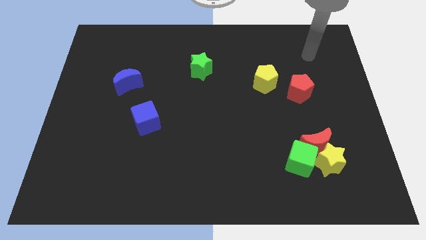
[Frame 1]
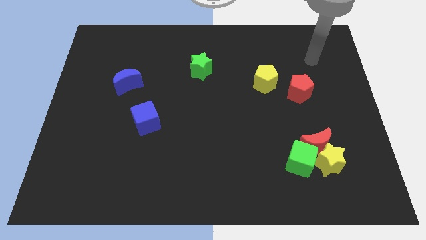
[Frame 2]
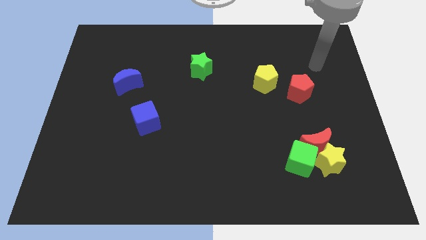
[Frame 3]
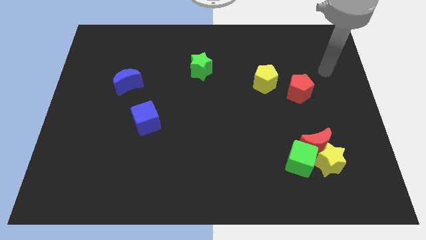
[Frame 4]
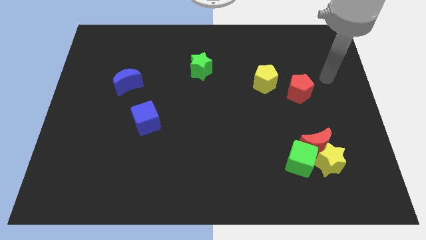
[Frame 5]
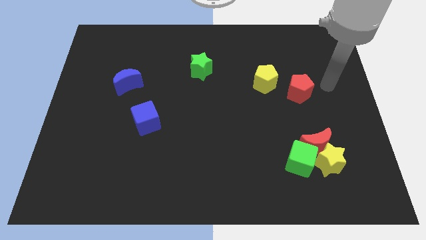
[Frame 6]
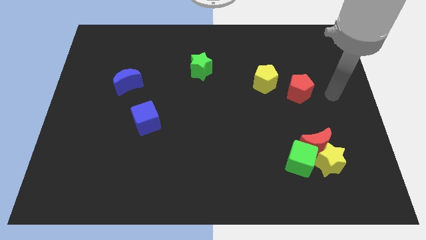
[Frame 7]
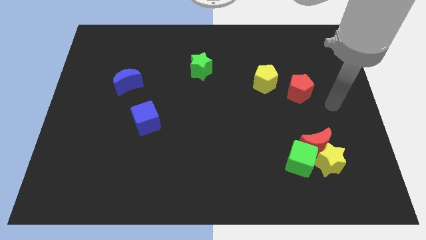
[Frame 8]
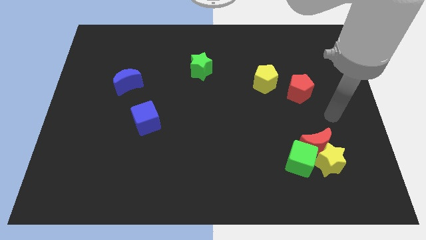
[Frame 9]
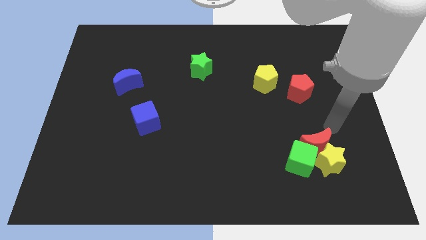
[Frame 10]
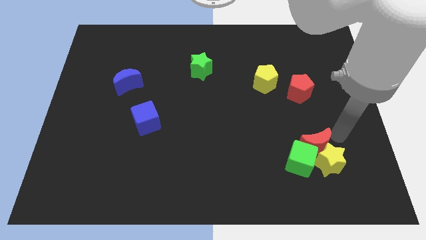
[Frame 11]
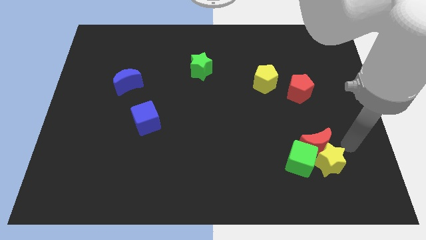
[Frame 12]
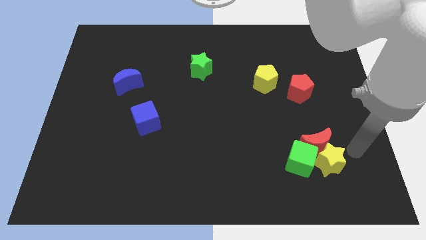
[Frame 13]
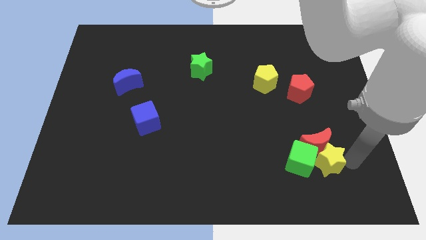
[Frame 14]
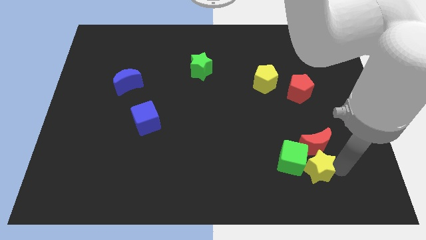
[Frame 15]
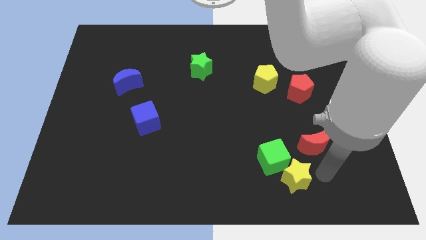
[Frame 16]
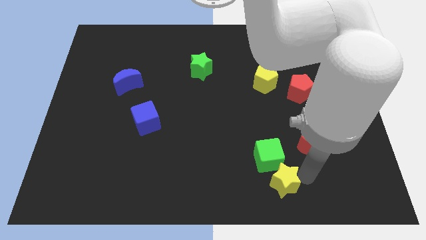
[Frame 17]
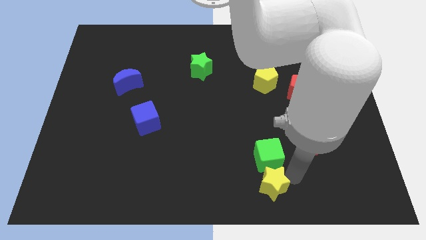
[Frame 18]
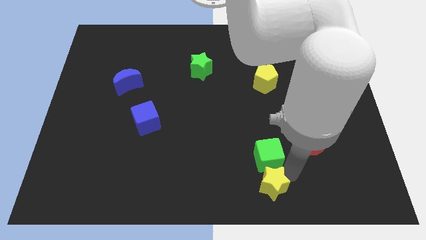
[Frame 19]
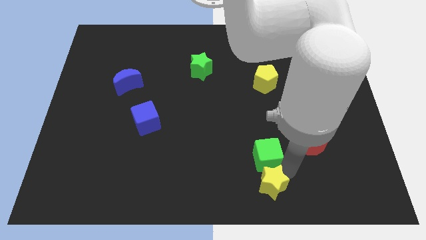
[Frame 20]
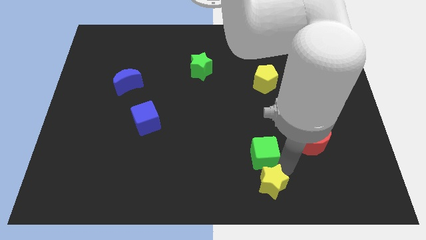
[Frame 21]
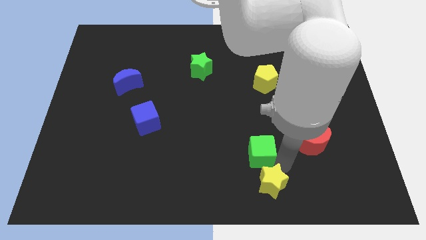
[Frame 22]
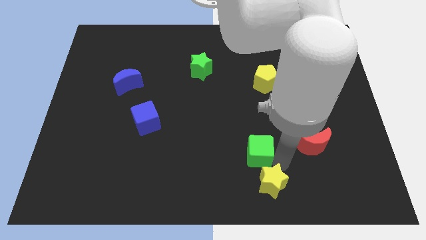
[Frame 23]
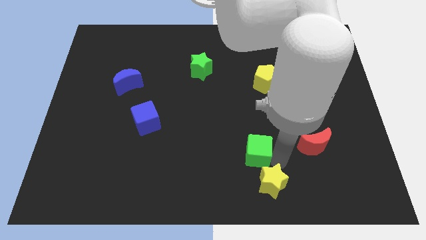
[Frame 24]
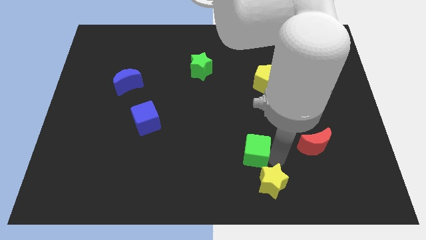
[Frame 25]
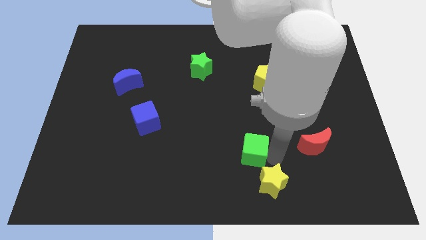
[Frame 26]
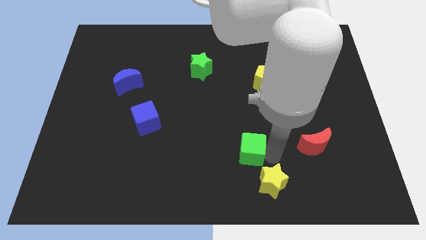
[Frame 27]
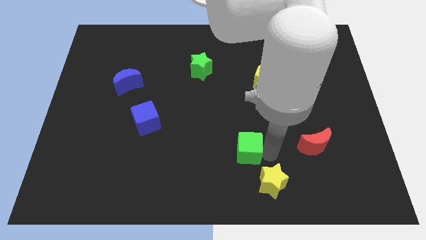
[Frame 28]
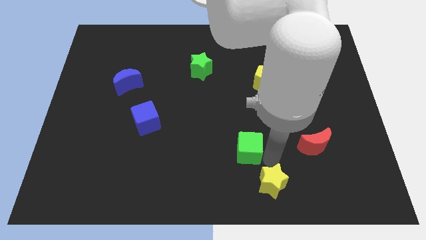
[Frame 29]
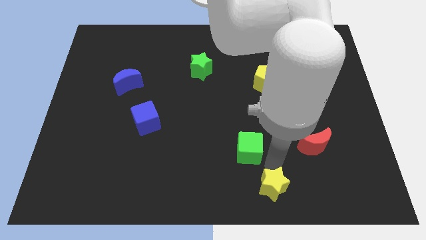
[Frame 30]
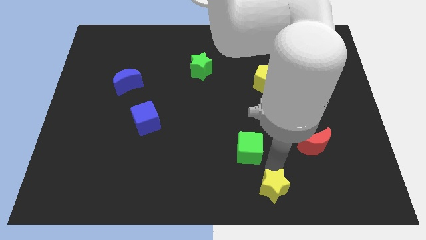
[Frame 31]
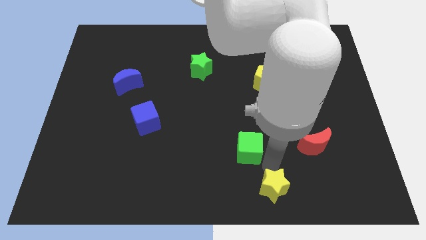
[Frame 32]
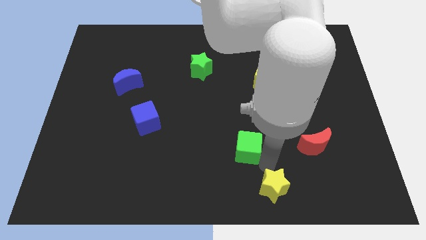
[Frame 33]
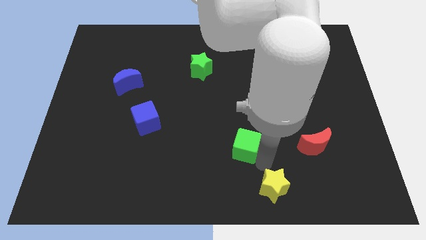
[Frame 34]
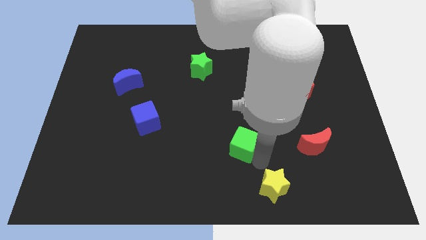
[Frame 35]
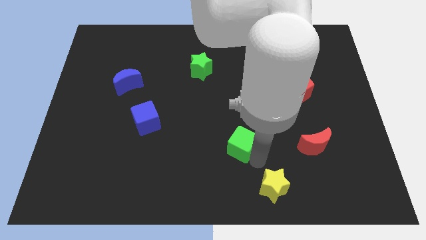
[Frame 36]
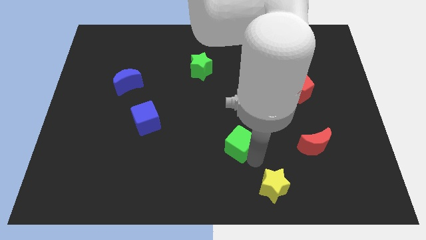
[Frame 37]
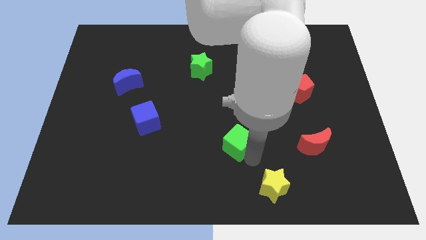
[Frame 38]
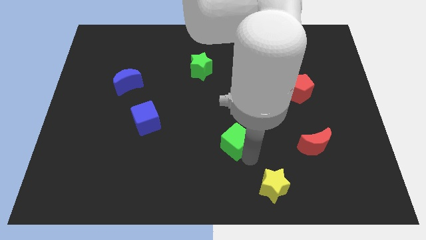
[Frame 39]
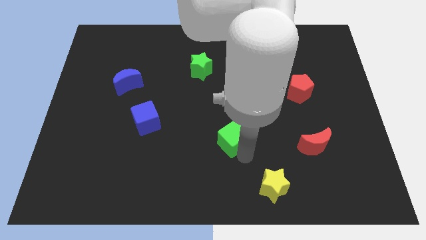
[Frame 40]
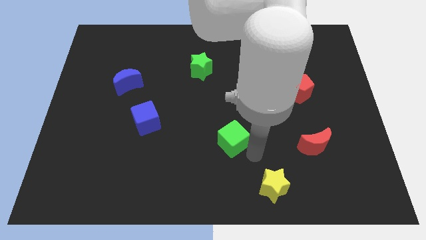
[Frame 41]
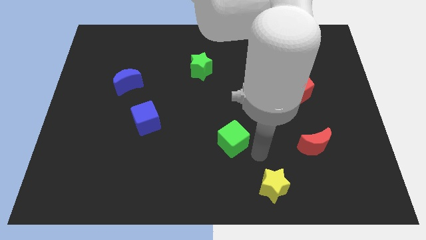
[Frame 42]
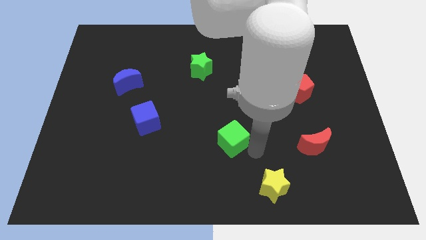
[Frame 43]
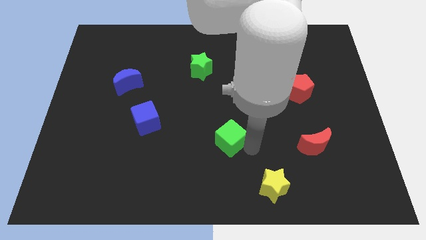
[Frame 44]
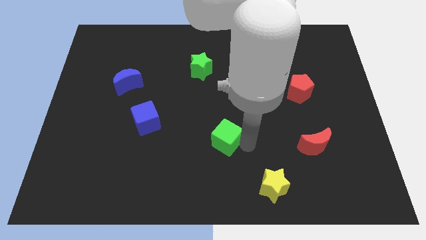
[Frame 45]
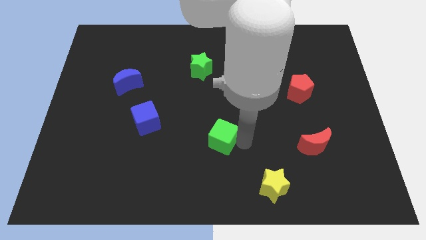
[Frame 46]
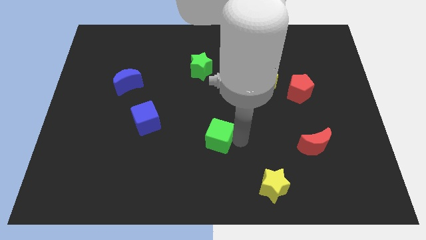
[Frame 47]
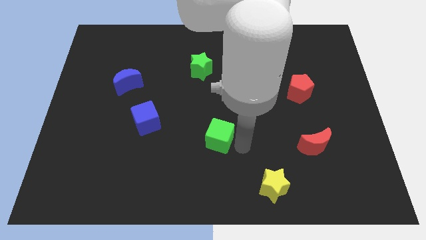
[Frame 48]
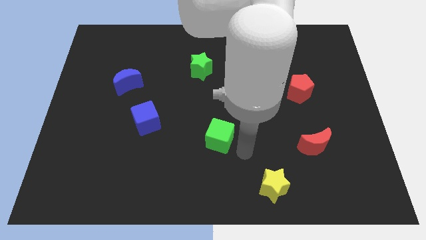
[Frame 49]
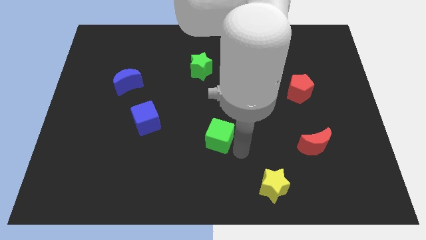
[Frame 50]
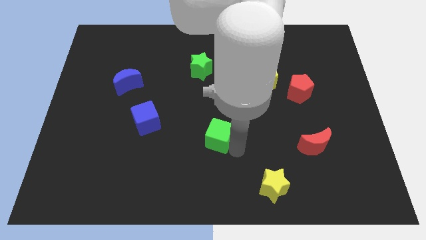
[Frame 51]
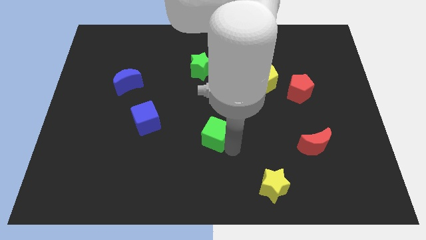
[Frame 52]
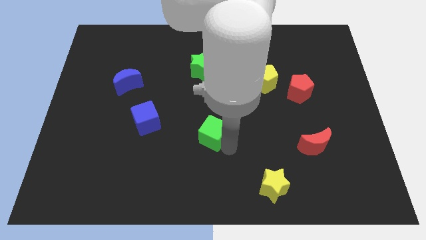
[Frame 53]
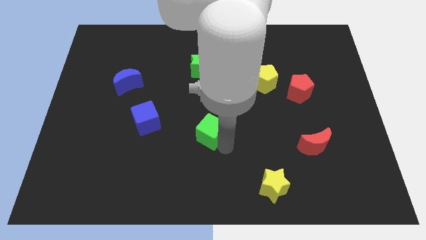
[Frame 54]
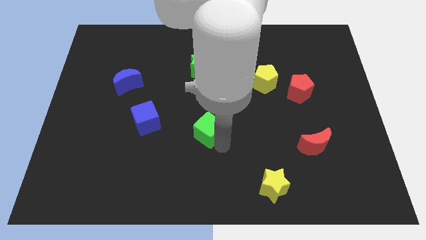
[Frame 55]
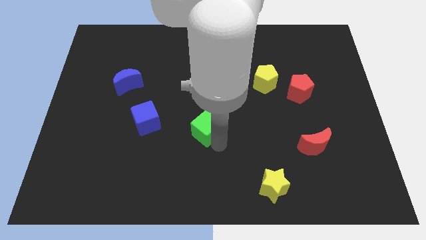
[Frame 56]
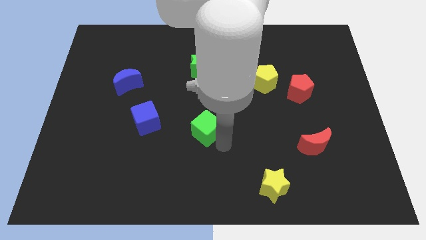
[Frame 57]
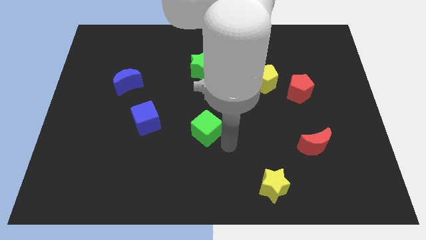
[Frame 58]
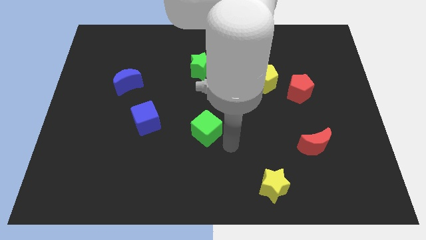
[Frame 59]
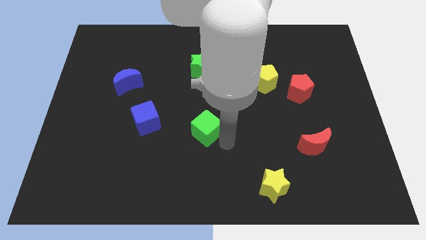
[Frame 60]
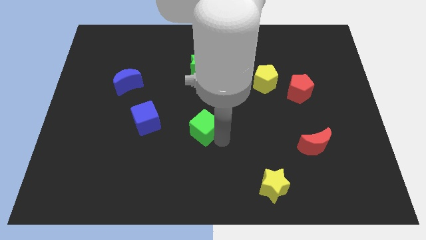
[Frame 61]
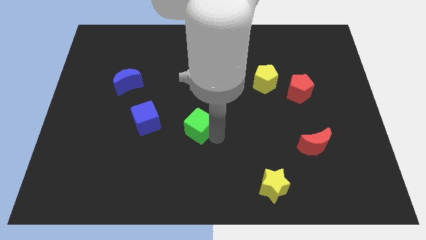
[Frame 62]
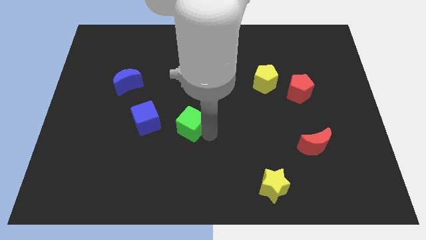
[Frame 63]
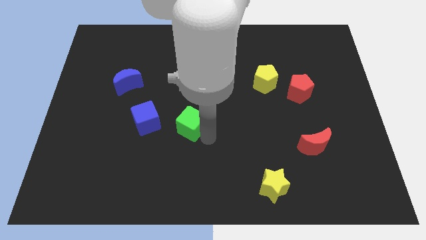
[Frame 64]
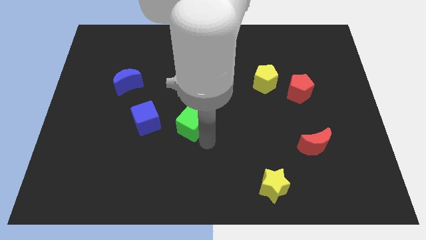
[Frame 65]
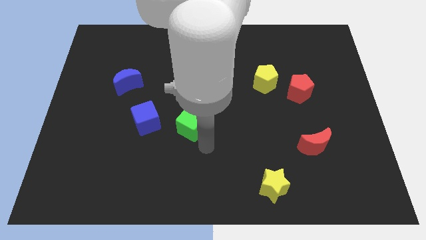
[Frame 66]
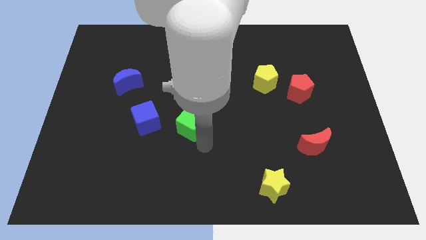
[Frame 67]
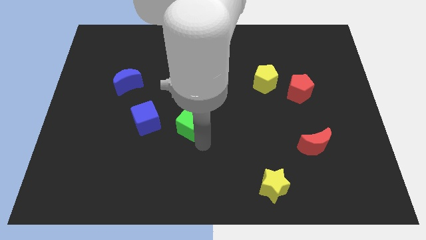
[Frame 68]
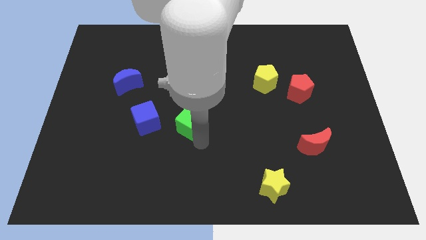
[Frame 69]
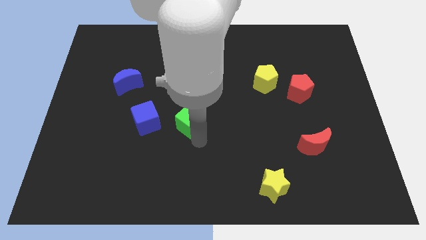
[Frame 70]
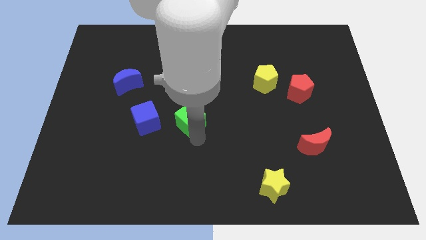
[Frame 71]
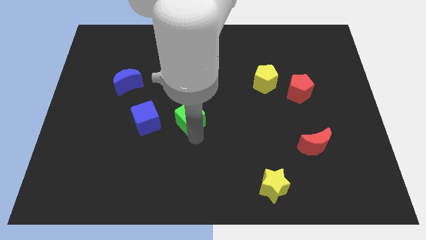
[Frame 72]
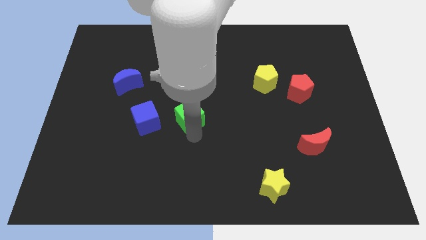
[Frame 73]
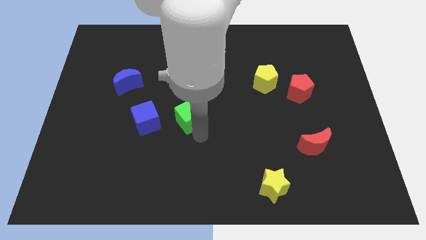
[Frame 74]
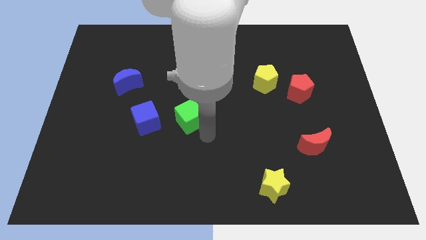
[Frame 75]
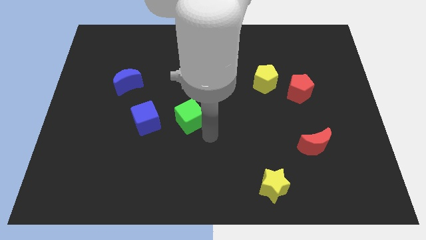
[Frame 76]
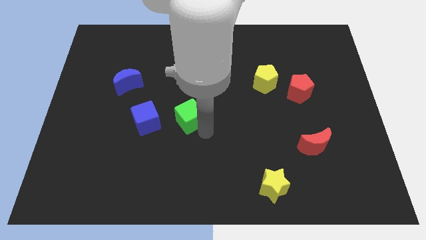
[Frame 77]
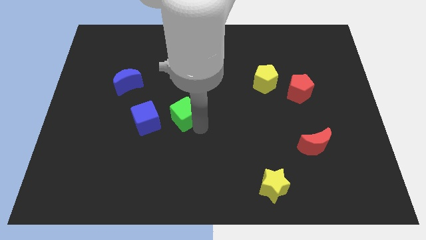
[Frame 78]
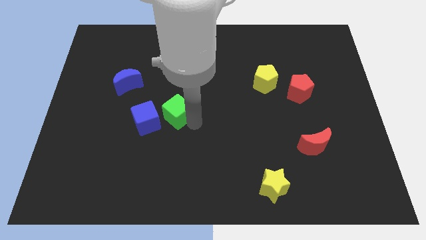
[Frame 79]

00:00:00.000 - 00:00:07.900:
slide the green cube diagonally up and to the right of the blue cube
